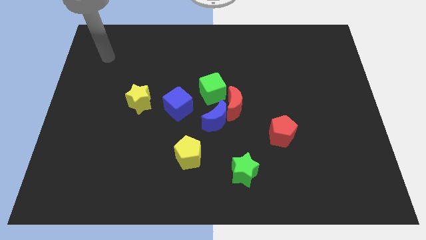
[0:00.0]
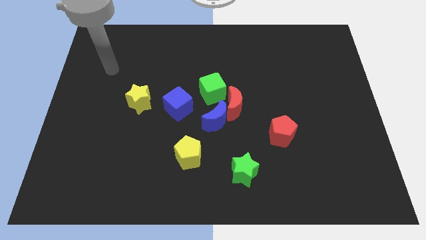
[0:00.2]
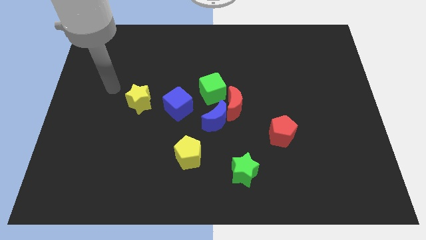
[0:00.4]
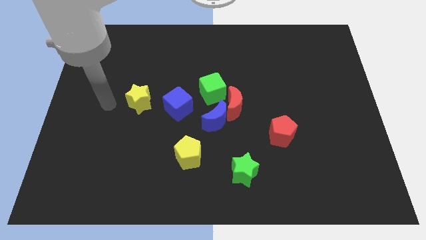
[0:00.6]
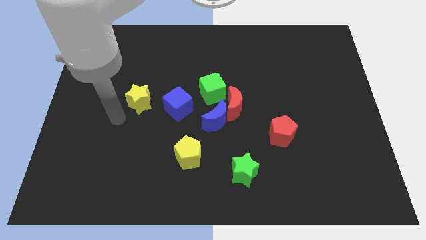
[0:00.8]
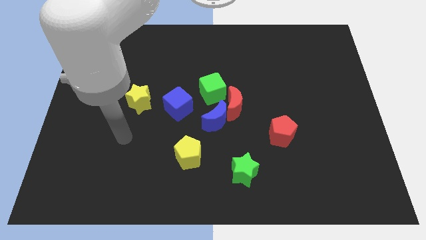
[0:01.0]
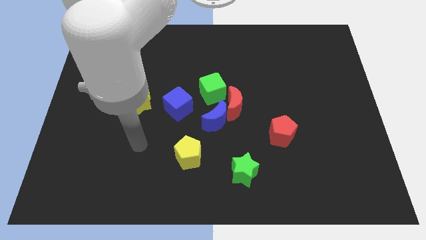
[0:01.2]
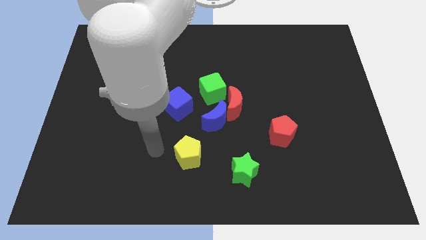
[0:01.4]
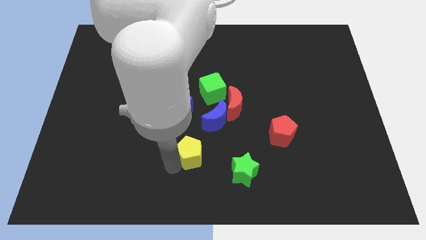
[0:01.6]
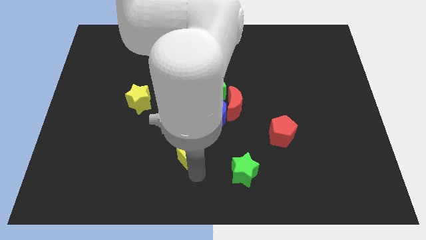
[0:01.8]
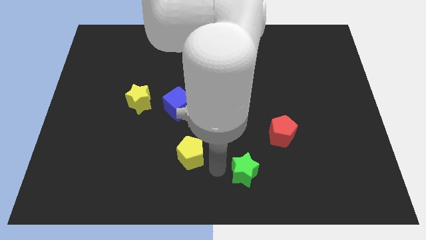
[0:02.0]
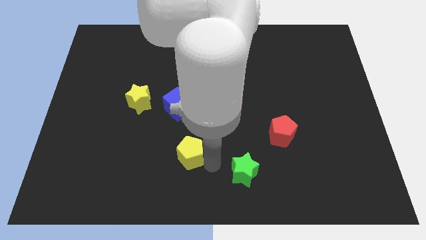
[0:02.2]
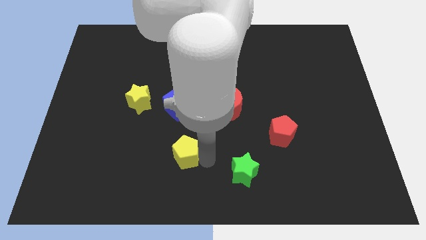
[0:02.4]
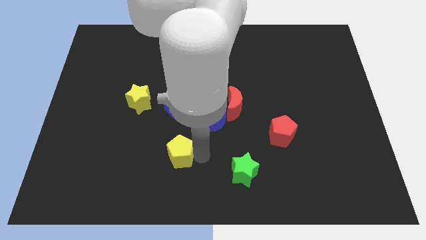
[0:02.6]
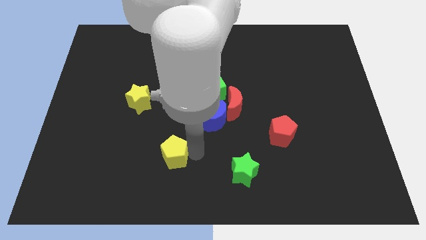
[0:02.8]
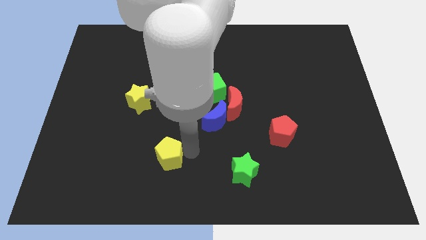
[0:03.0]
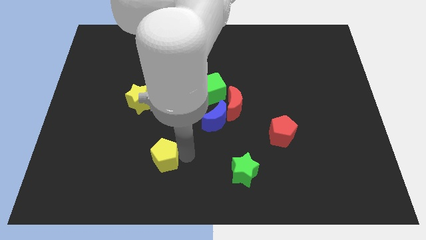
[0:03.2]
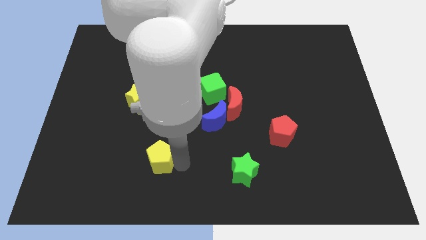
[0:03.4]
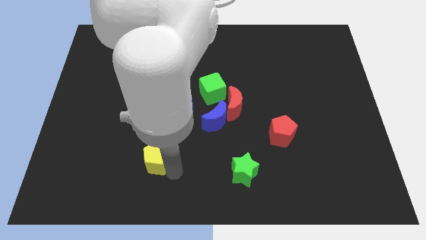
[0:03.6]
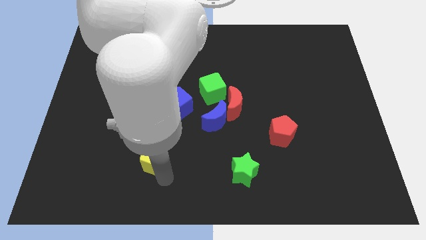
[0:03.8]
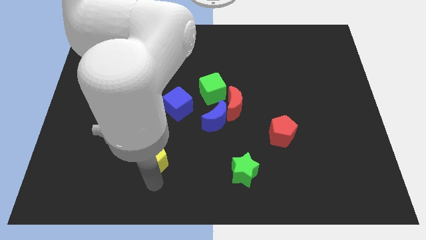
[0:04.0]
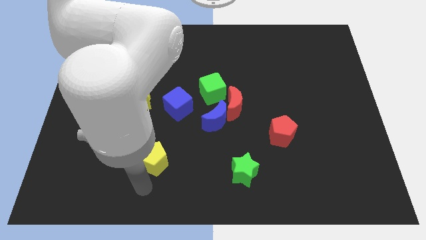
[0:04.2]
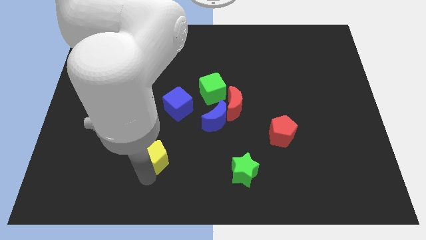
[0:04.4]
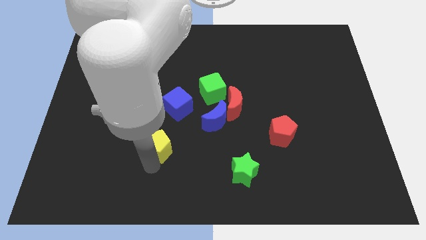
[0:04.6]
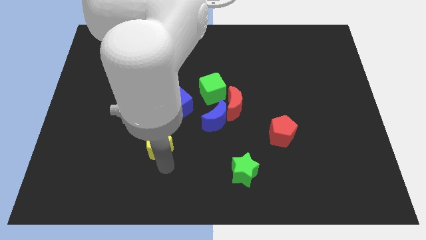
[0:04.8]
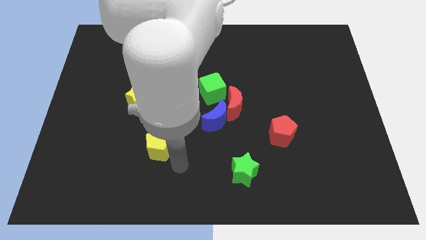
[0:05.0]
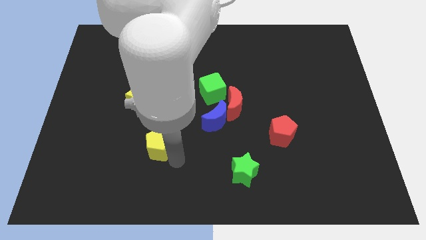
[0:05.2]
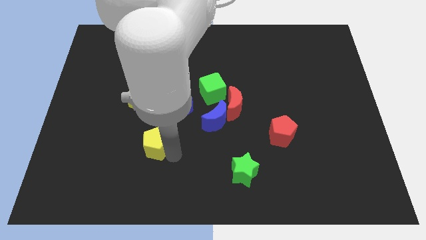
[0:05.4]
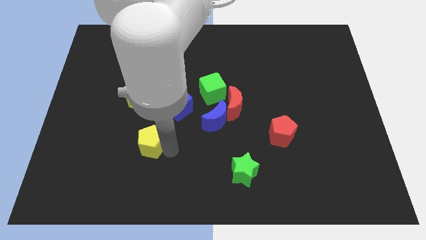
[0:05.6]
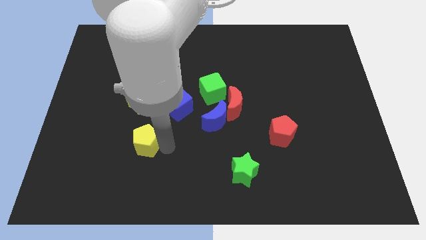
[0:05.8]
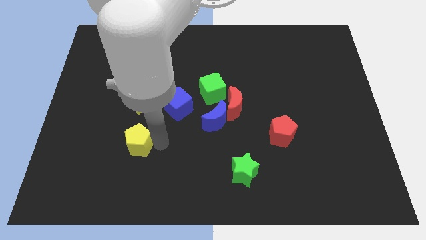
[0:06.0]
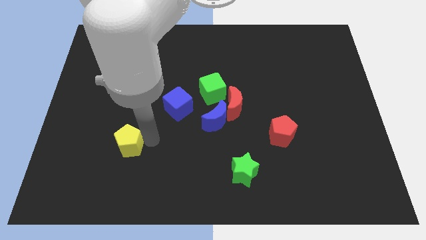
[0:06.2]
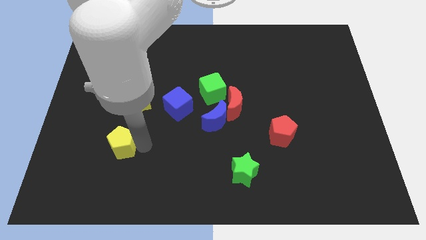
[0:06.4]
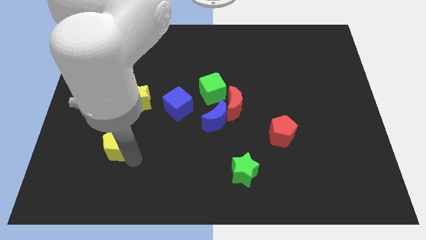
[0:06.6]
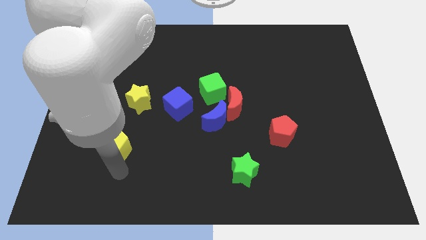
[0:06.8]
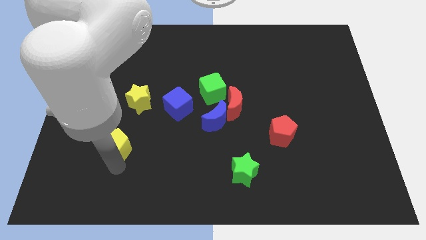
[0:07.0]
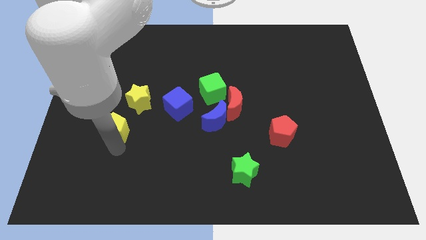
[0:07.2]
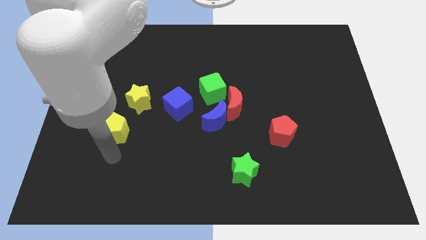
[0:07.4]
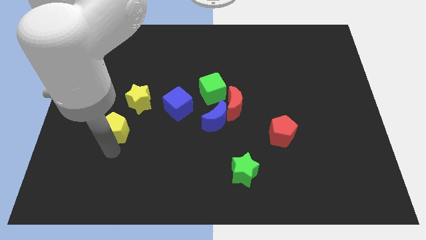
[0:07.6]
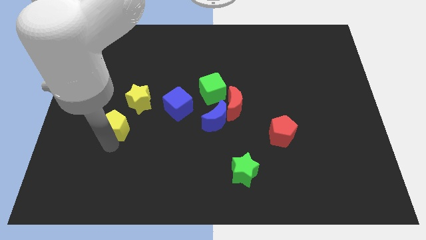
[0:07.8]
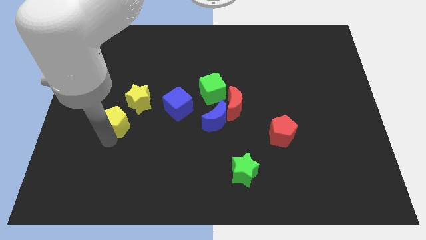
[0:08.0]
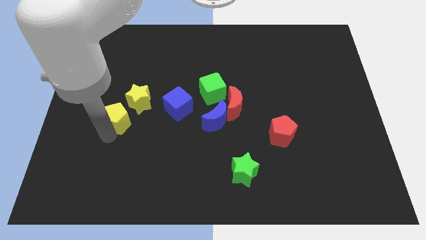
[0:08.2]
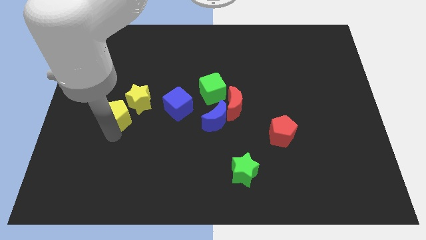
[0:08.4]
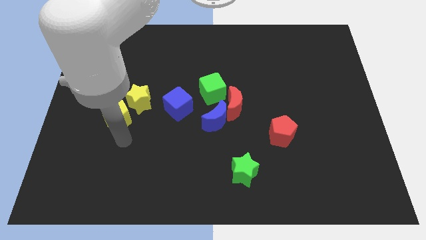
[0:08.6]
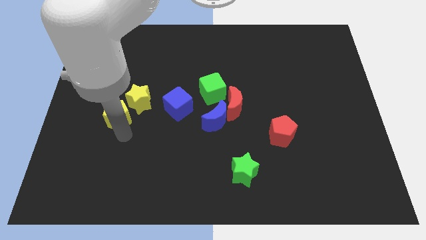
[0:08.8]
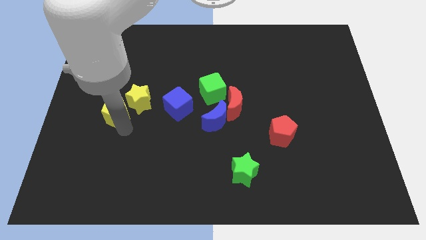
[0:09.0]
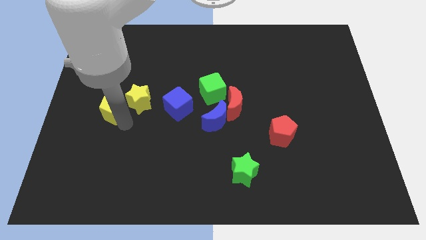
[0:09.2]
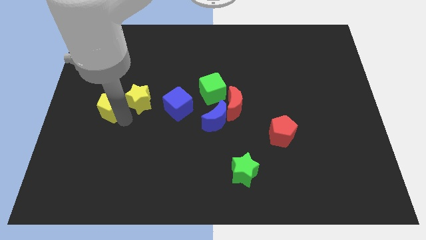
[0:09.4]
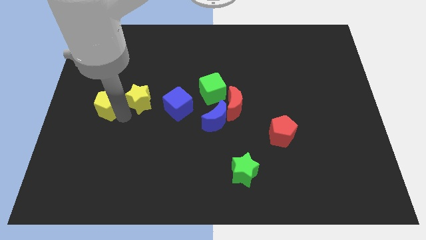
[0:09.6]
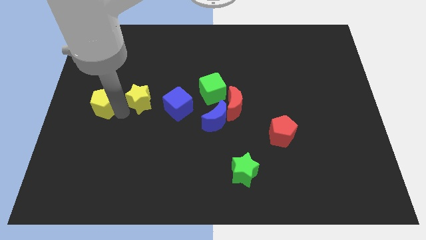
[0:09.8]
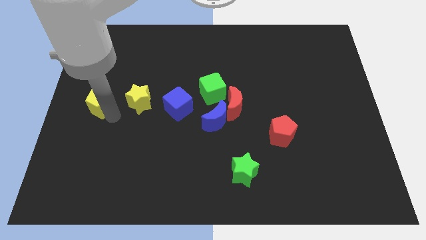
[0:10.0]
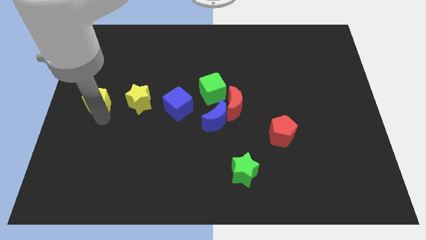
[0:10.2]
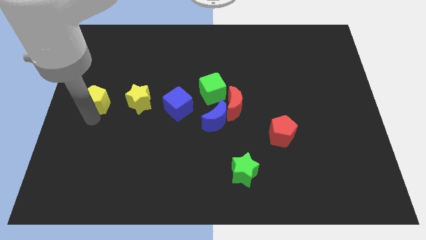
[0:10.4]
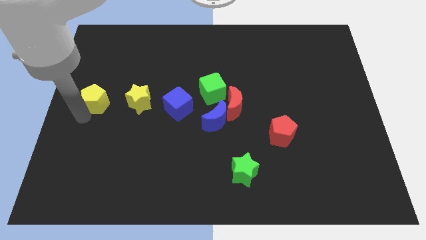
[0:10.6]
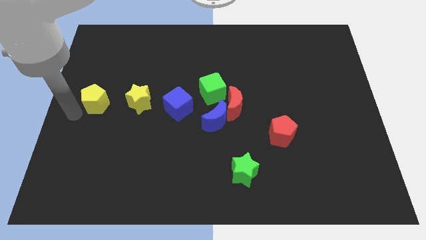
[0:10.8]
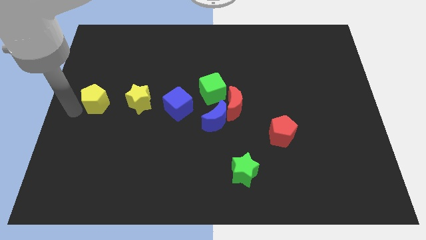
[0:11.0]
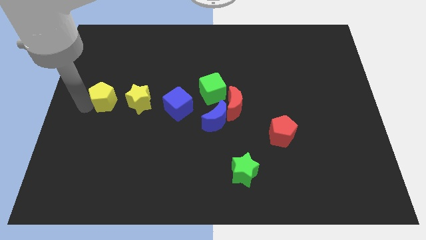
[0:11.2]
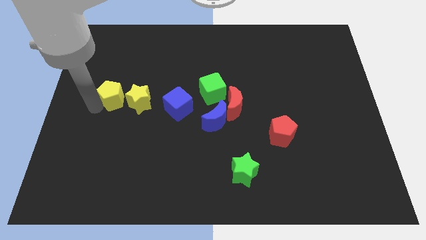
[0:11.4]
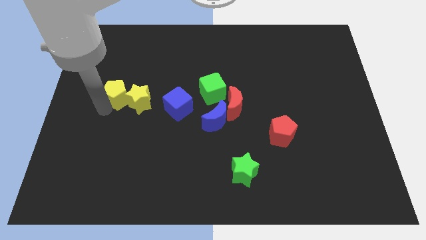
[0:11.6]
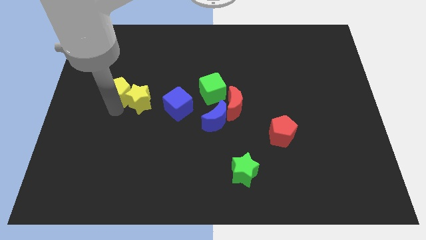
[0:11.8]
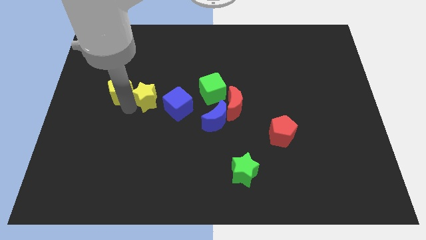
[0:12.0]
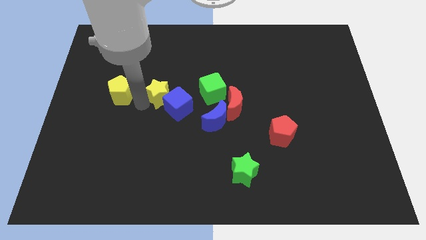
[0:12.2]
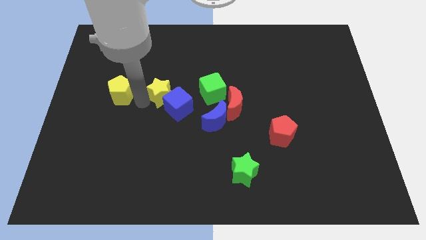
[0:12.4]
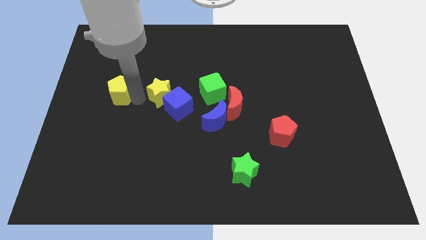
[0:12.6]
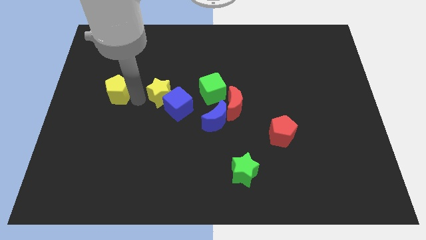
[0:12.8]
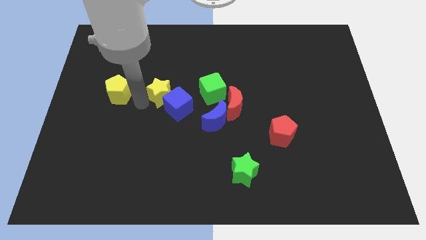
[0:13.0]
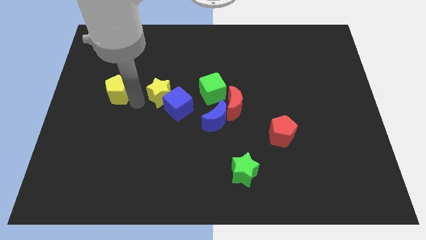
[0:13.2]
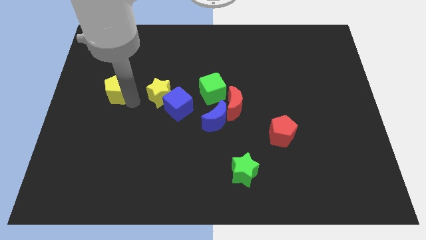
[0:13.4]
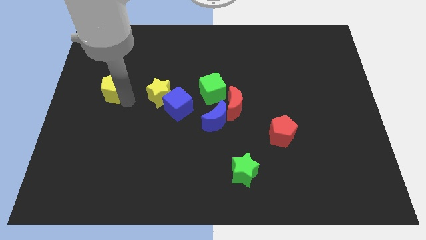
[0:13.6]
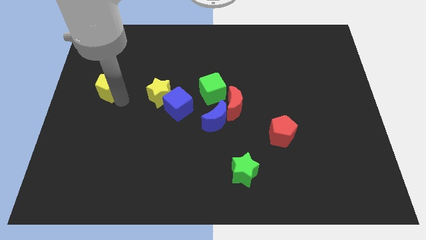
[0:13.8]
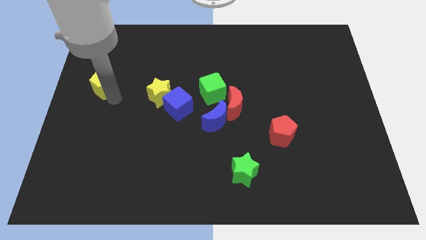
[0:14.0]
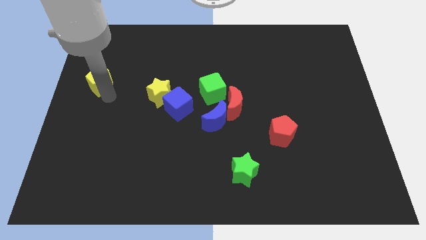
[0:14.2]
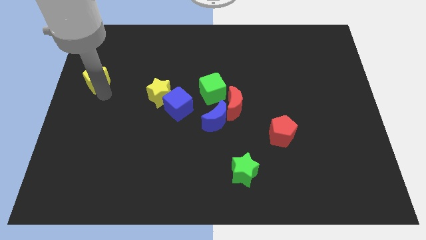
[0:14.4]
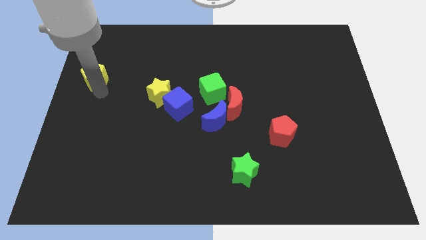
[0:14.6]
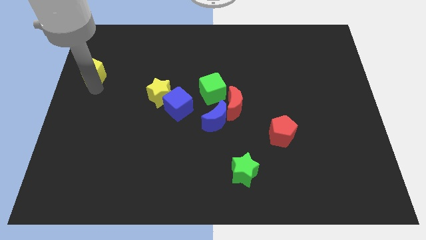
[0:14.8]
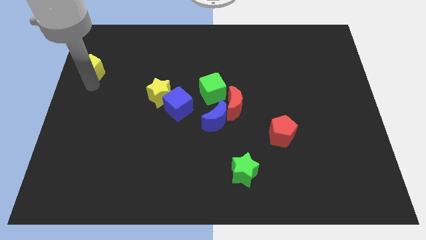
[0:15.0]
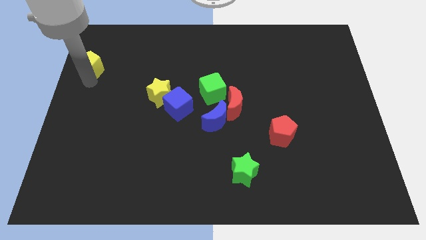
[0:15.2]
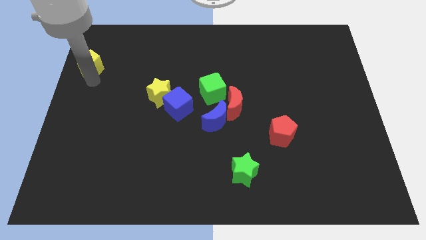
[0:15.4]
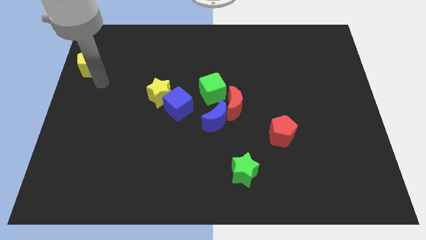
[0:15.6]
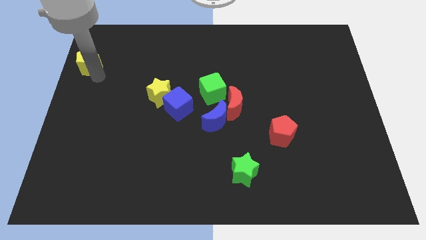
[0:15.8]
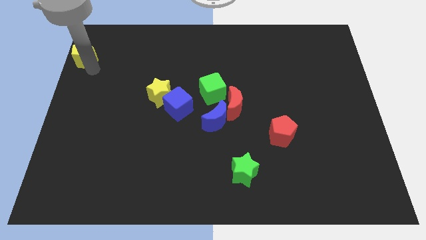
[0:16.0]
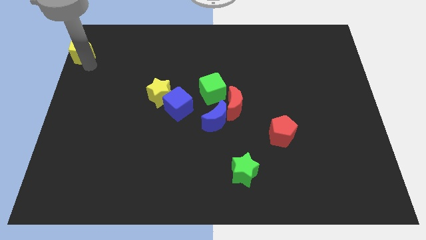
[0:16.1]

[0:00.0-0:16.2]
move the yellow pentagon to the top left
